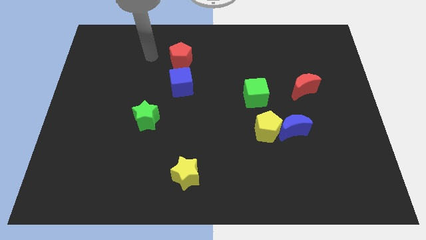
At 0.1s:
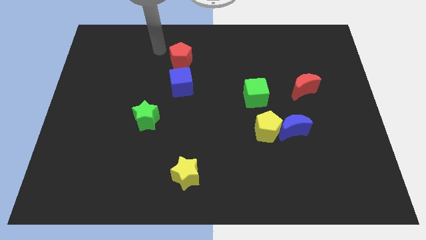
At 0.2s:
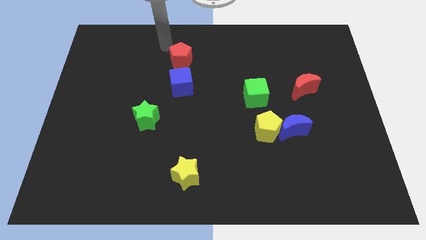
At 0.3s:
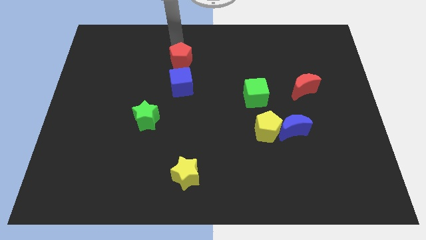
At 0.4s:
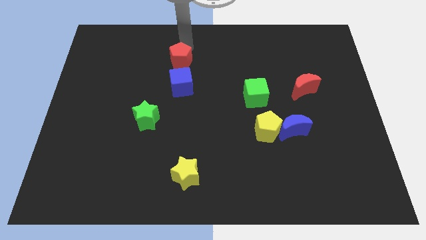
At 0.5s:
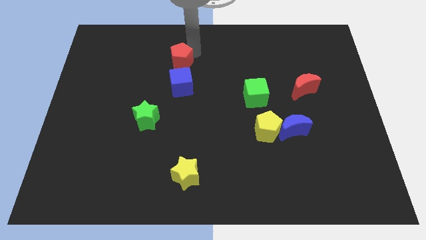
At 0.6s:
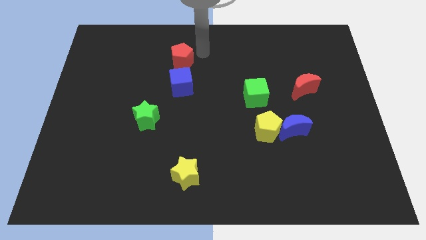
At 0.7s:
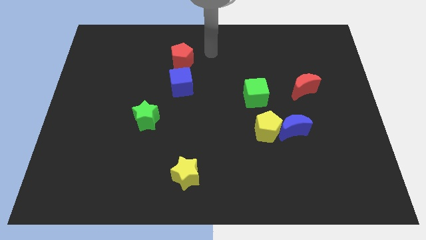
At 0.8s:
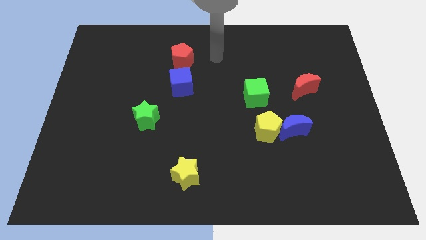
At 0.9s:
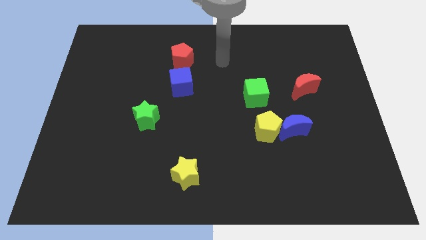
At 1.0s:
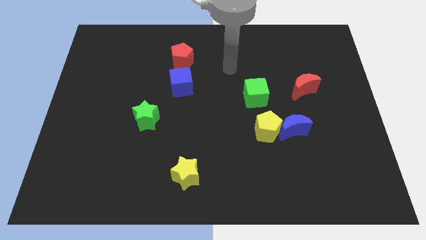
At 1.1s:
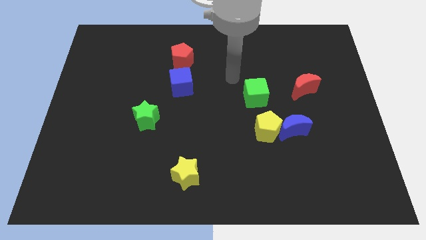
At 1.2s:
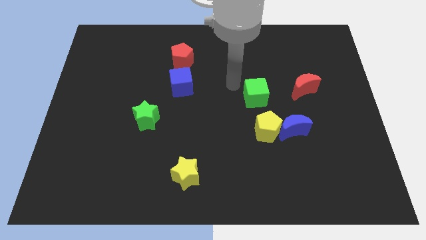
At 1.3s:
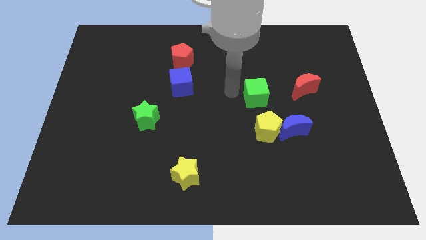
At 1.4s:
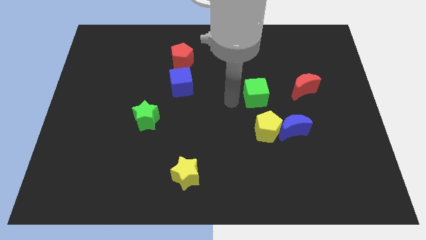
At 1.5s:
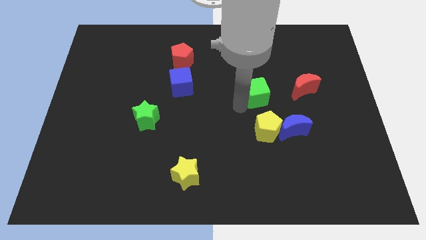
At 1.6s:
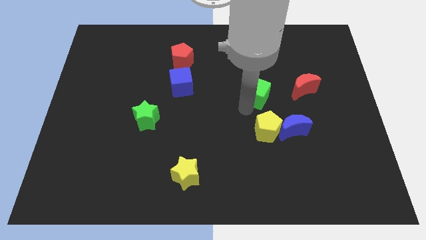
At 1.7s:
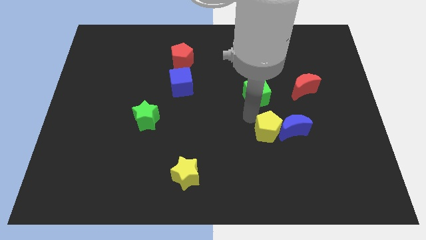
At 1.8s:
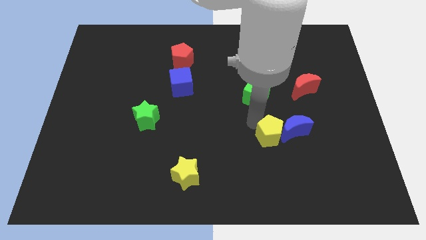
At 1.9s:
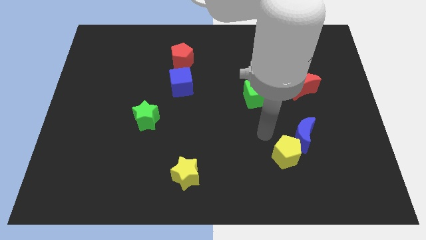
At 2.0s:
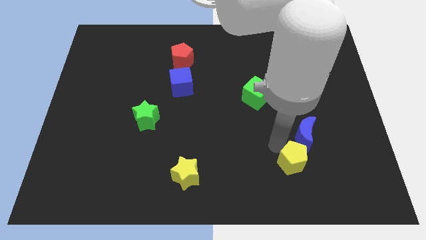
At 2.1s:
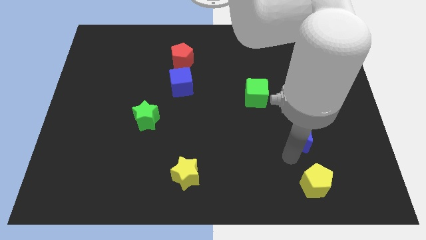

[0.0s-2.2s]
separate the blue moon from the yellow pentagon

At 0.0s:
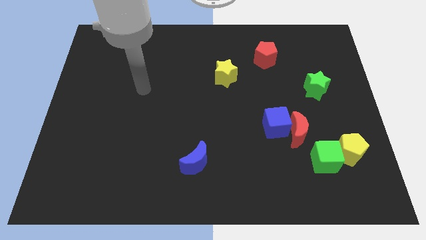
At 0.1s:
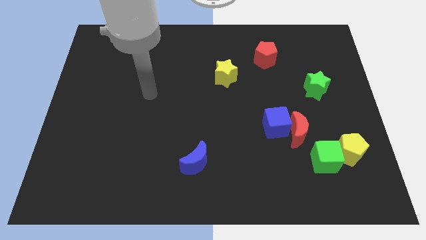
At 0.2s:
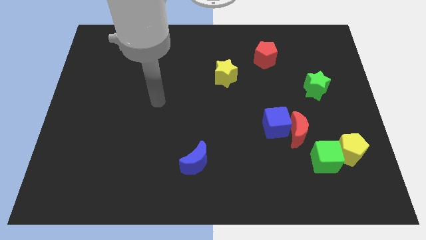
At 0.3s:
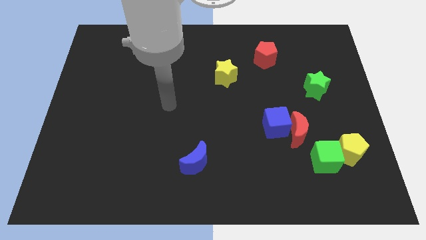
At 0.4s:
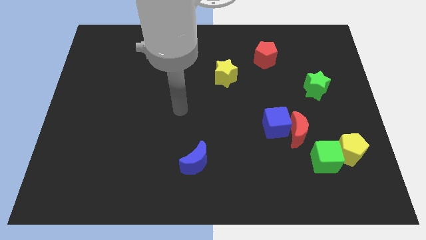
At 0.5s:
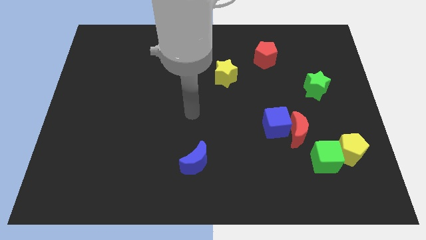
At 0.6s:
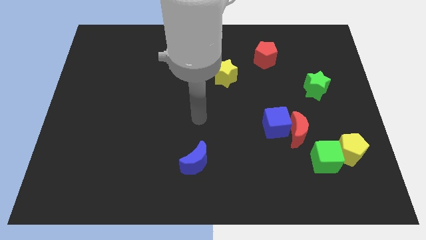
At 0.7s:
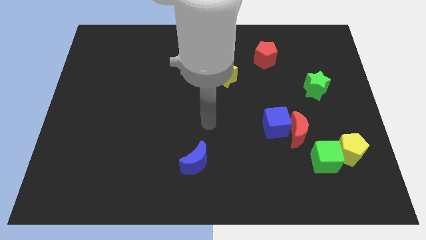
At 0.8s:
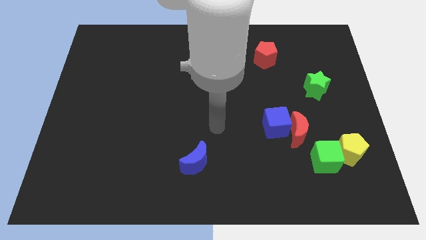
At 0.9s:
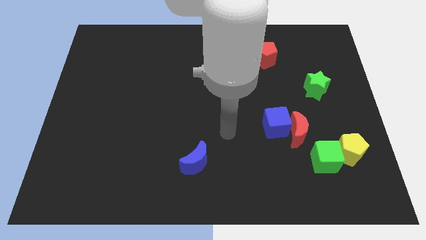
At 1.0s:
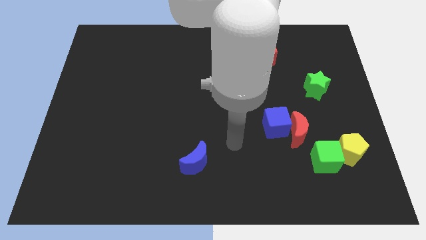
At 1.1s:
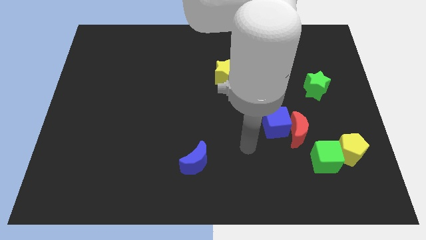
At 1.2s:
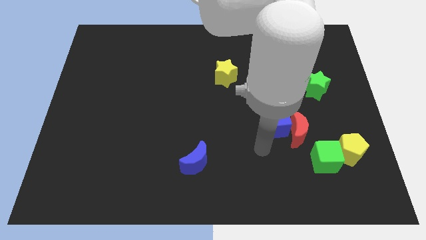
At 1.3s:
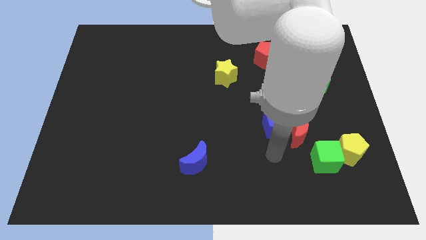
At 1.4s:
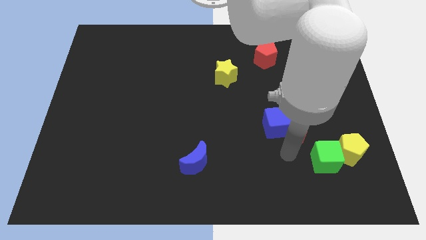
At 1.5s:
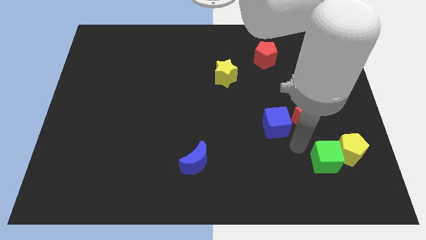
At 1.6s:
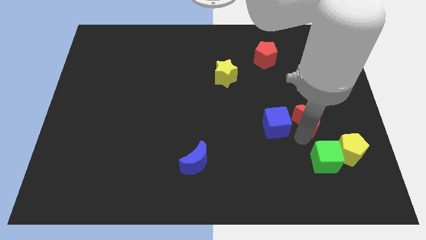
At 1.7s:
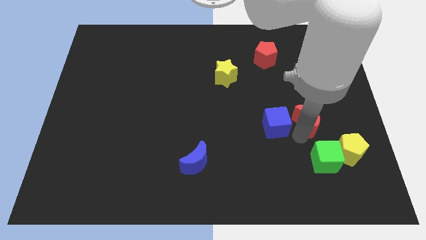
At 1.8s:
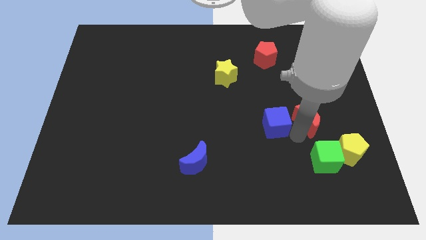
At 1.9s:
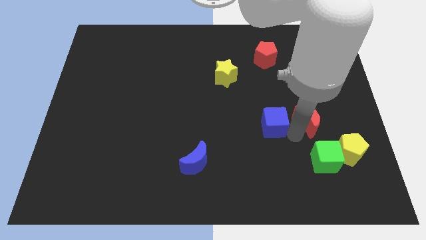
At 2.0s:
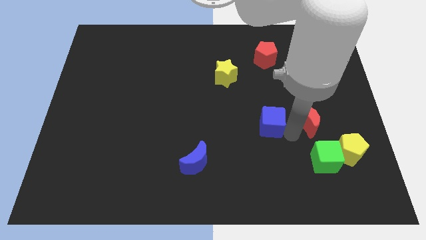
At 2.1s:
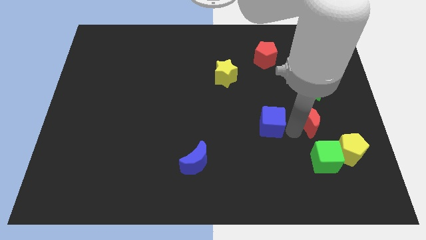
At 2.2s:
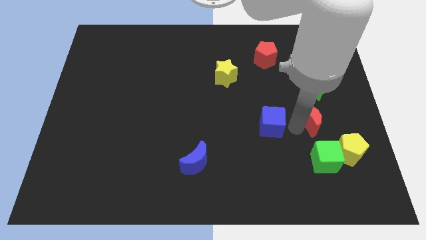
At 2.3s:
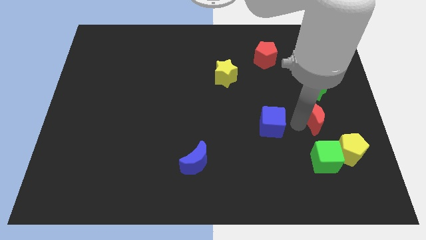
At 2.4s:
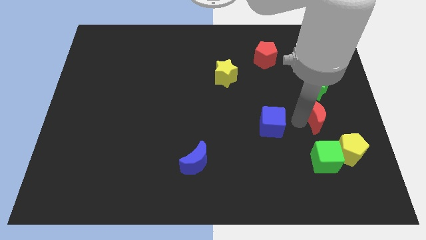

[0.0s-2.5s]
separate the blue cube from the red moon

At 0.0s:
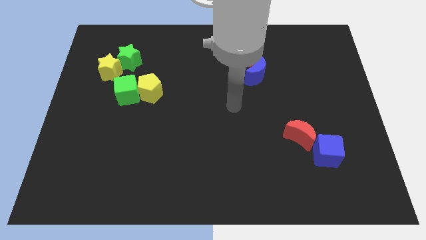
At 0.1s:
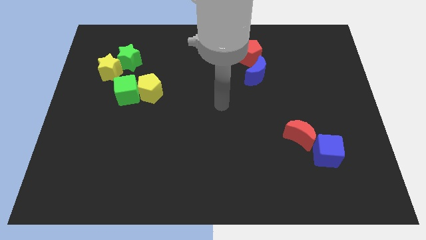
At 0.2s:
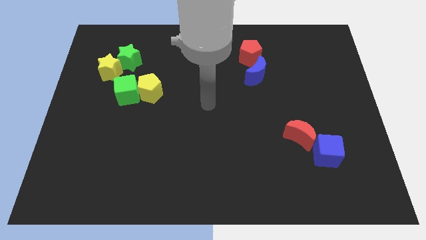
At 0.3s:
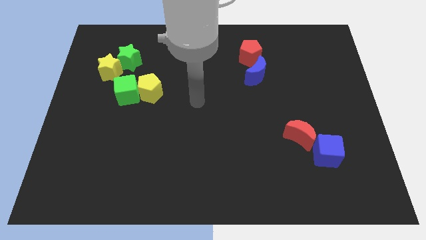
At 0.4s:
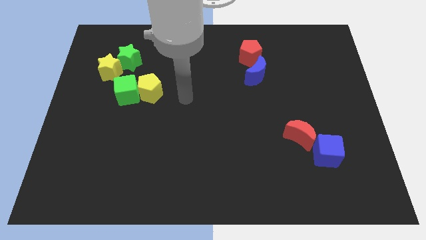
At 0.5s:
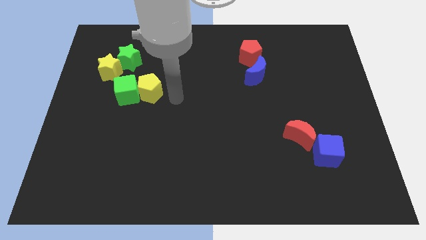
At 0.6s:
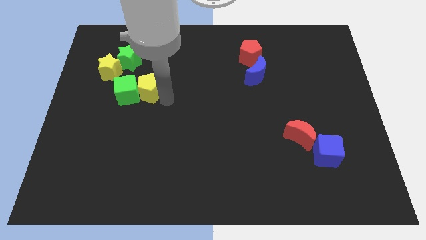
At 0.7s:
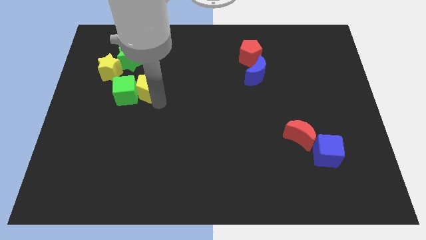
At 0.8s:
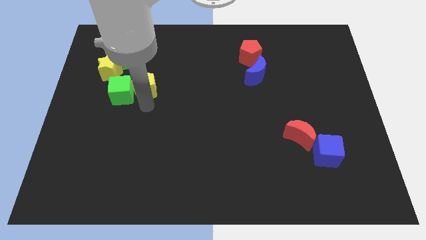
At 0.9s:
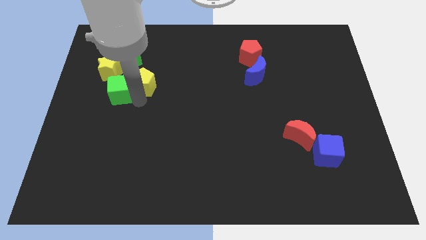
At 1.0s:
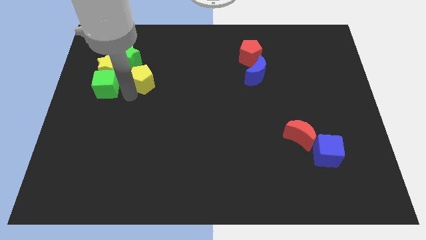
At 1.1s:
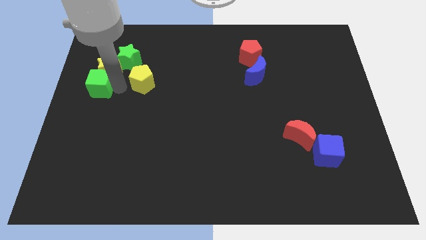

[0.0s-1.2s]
move the yellow pentagon away from the green cube

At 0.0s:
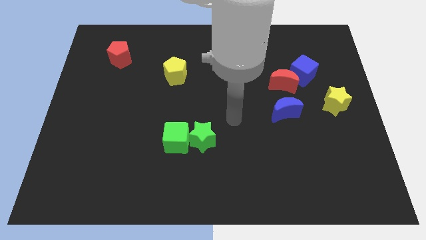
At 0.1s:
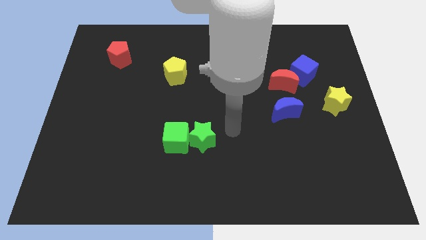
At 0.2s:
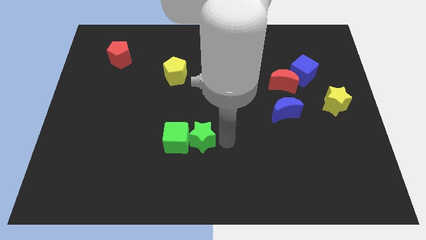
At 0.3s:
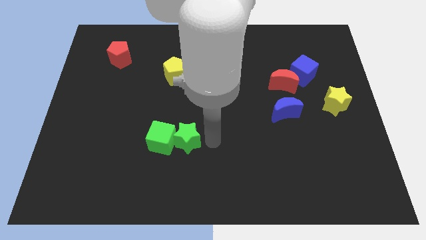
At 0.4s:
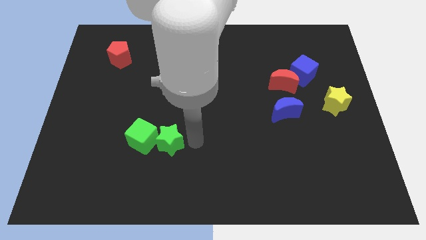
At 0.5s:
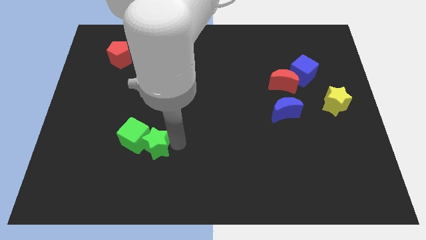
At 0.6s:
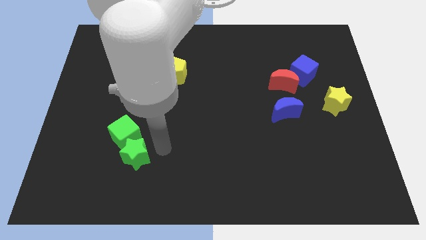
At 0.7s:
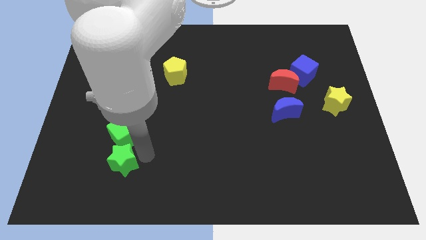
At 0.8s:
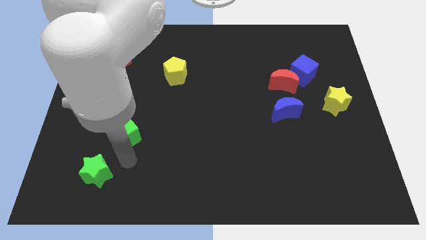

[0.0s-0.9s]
move the green cube away from the green star

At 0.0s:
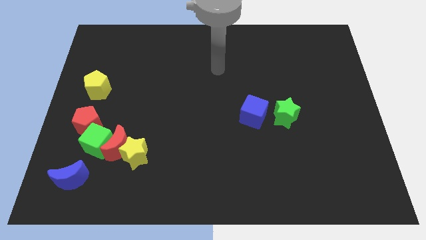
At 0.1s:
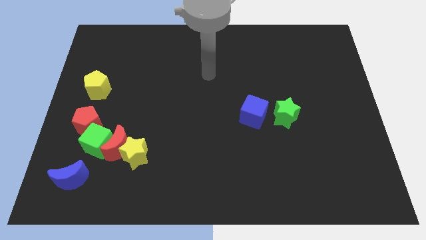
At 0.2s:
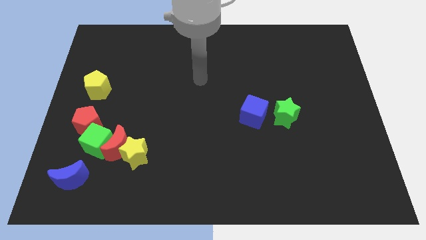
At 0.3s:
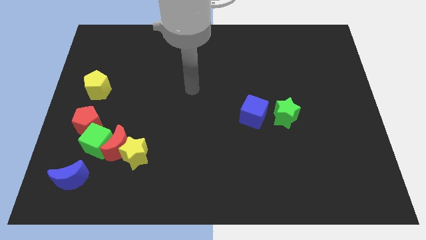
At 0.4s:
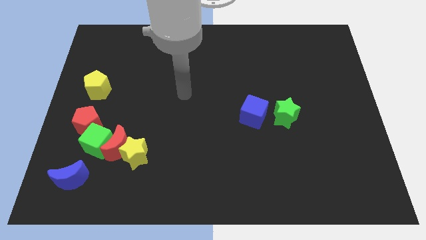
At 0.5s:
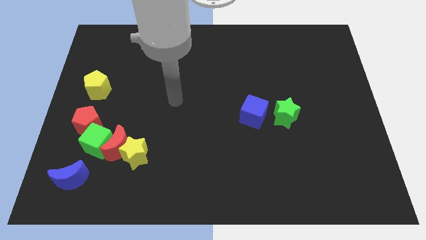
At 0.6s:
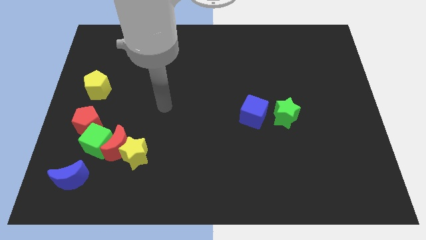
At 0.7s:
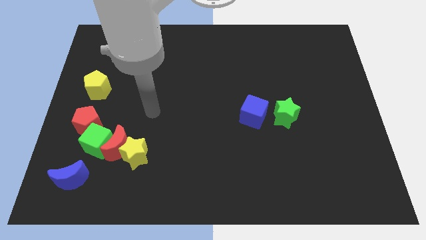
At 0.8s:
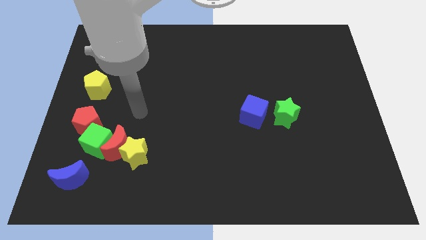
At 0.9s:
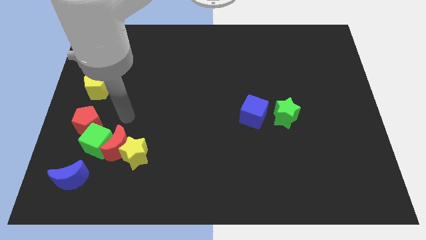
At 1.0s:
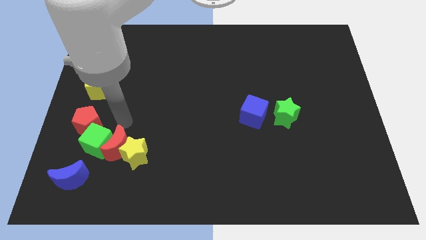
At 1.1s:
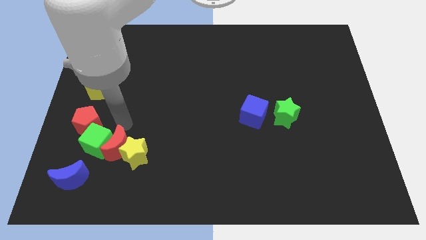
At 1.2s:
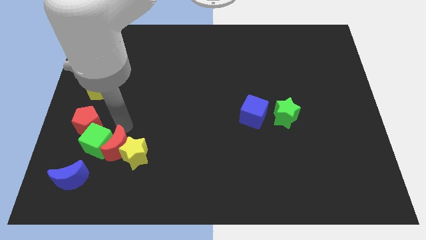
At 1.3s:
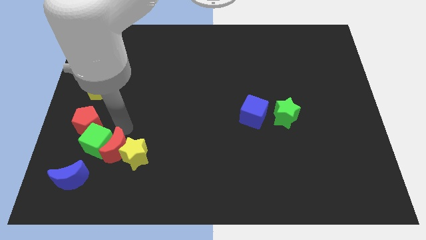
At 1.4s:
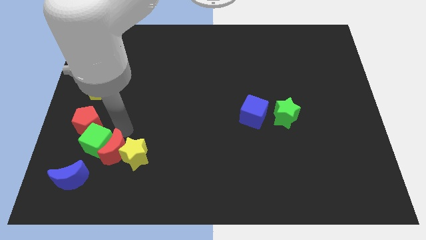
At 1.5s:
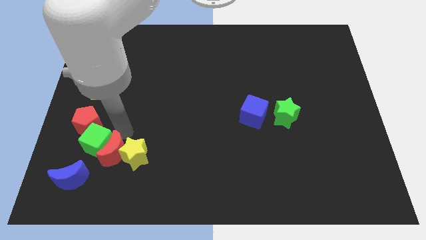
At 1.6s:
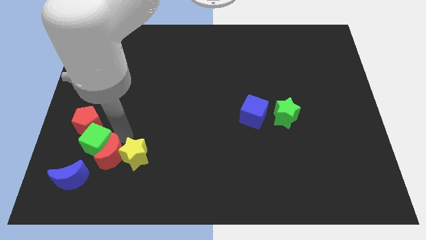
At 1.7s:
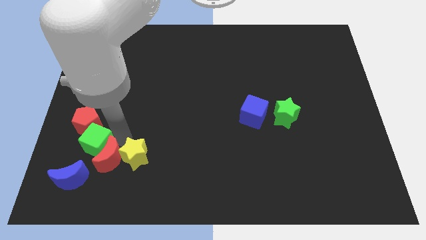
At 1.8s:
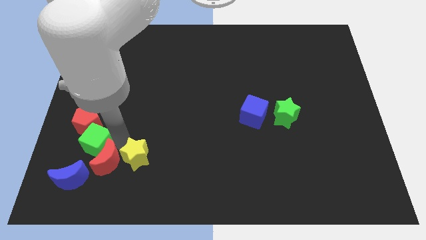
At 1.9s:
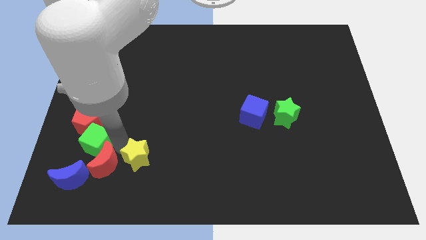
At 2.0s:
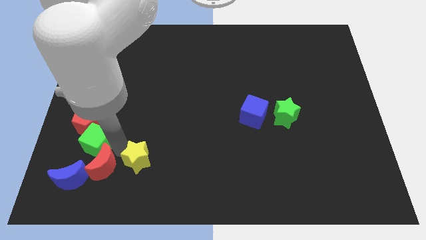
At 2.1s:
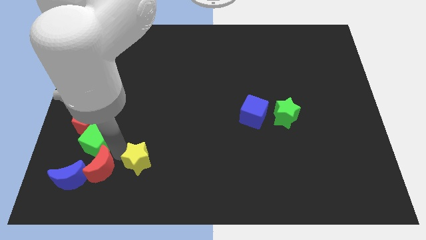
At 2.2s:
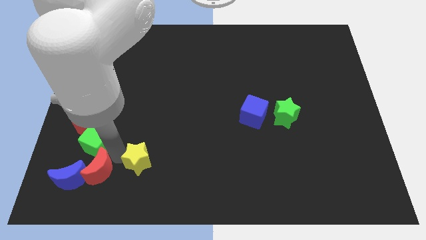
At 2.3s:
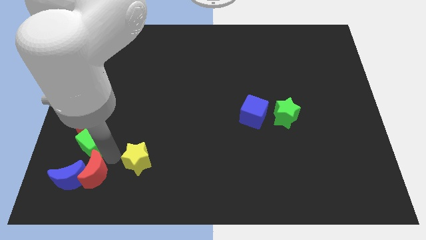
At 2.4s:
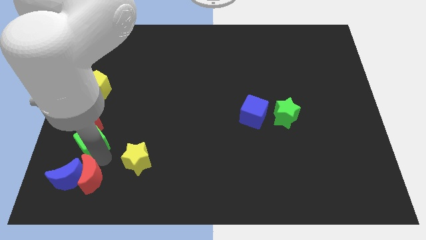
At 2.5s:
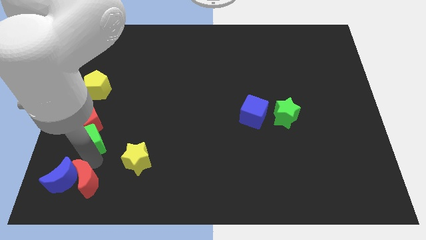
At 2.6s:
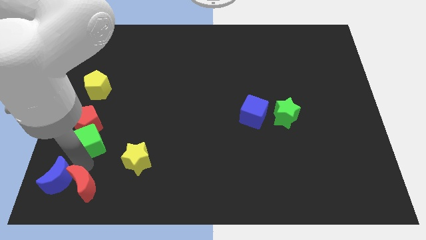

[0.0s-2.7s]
separate the red moon from the group

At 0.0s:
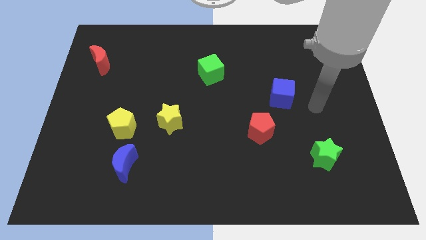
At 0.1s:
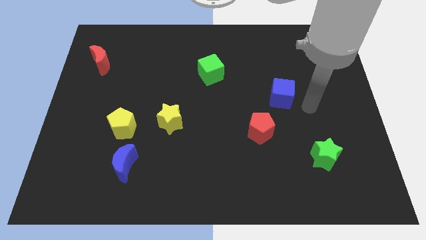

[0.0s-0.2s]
move the blue moon away from the yellow pentagon
